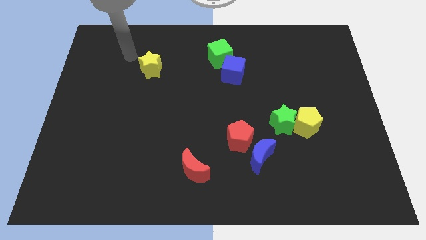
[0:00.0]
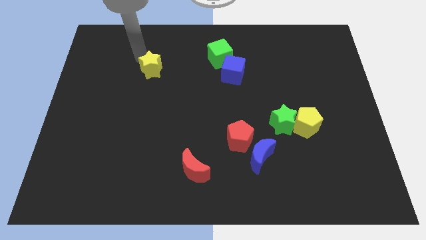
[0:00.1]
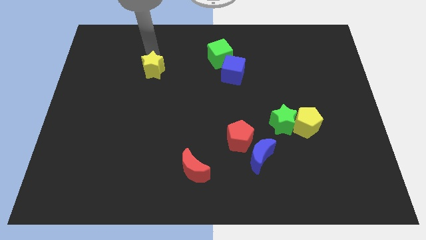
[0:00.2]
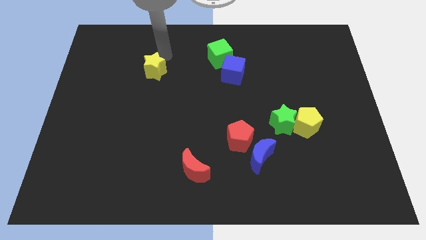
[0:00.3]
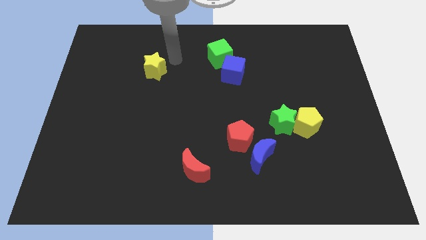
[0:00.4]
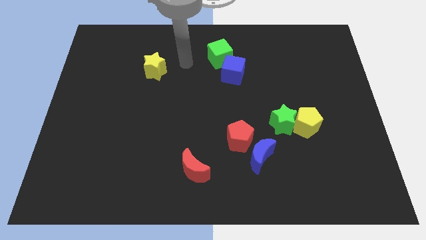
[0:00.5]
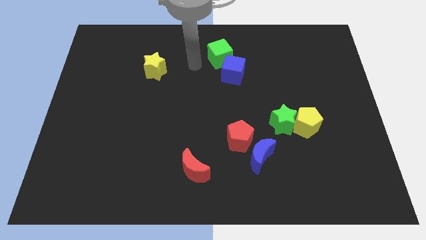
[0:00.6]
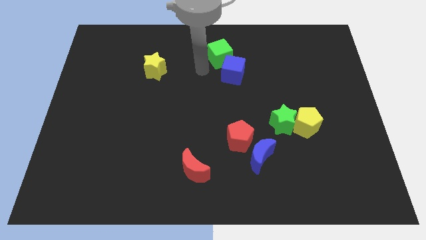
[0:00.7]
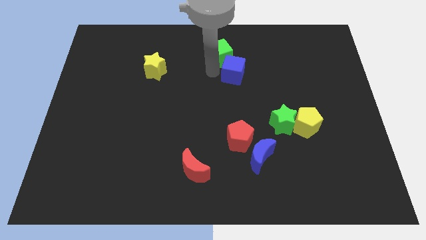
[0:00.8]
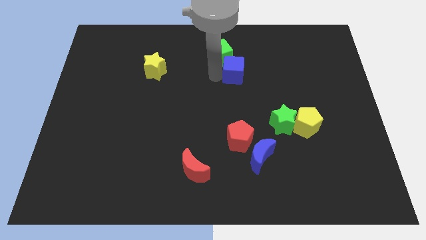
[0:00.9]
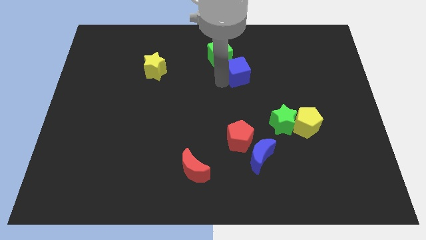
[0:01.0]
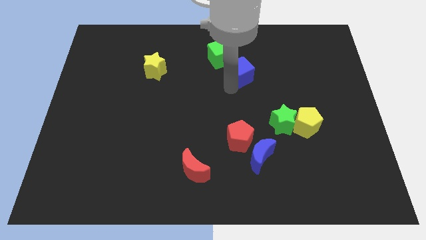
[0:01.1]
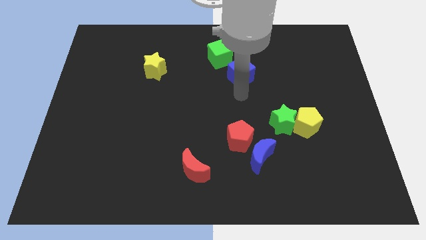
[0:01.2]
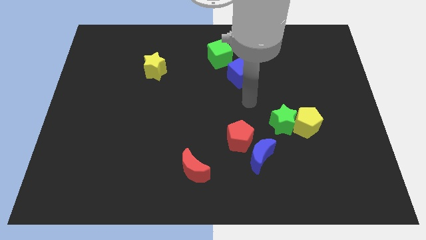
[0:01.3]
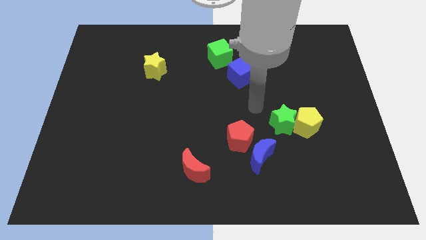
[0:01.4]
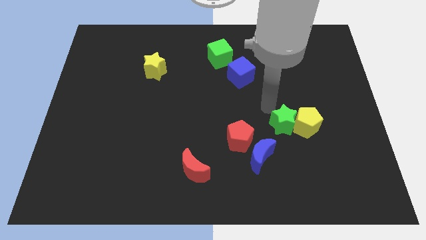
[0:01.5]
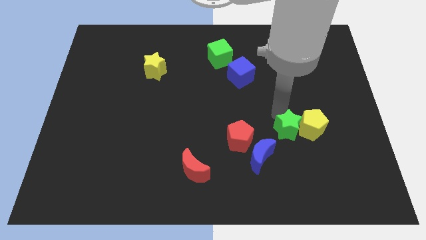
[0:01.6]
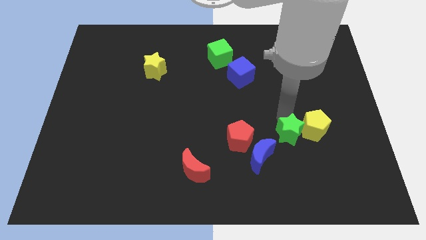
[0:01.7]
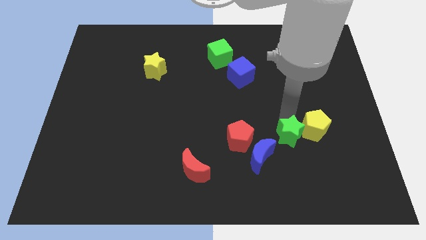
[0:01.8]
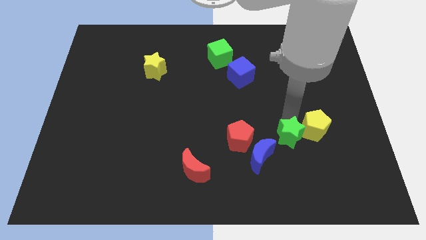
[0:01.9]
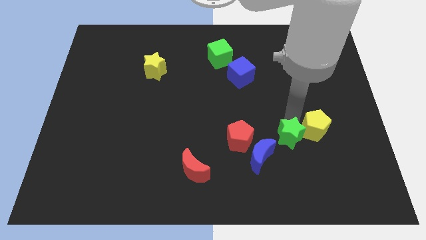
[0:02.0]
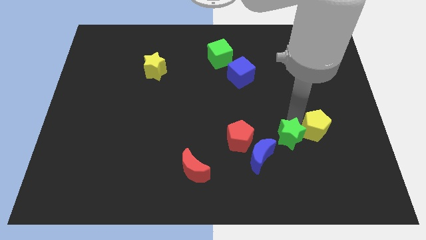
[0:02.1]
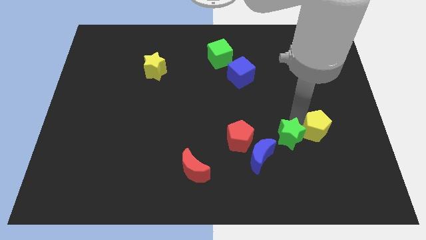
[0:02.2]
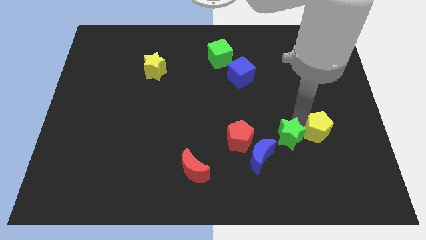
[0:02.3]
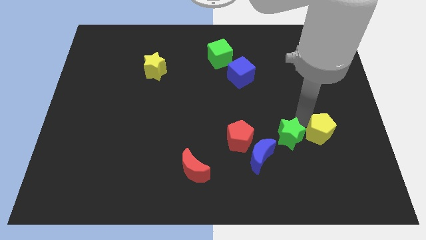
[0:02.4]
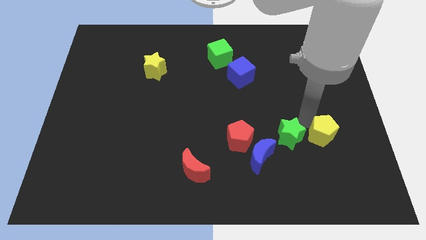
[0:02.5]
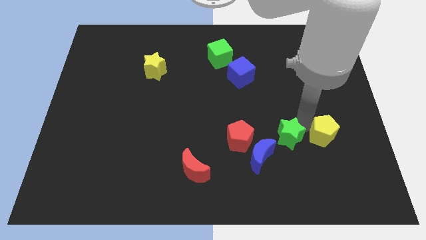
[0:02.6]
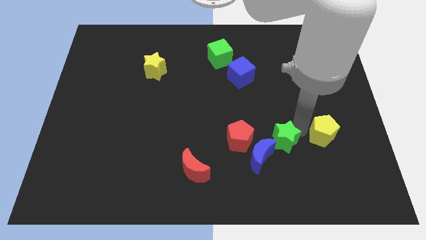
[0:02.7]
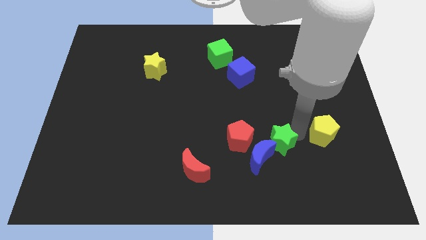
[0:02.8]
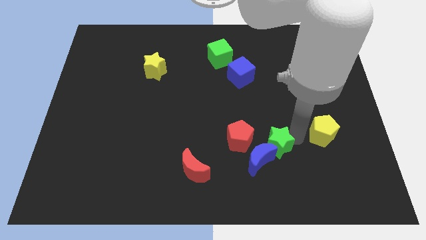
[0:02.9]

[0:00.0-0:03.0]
pull the yellow pentagon apart from the green star

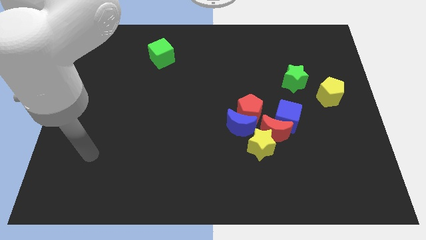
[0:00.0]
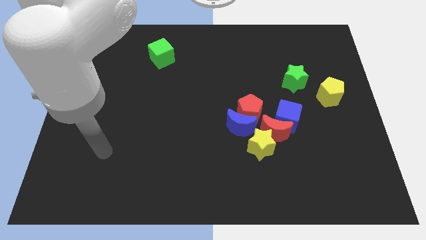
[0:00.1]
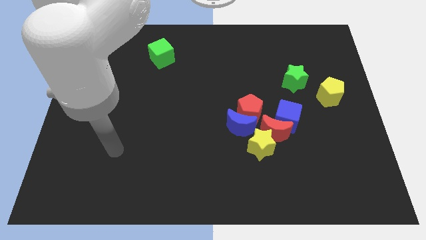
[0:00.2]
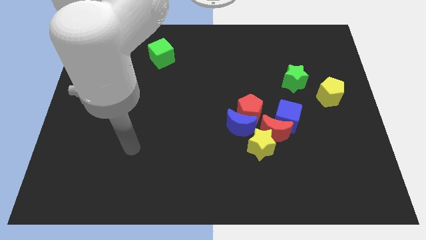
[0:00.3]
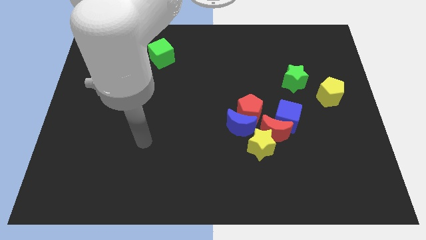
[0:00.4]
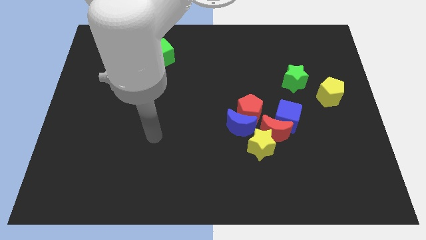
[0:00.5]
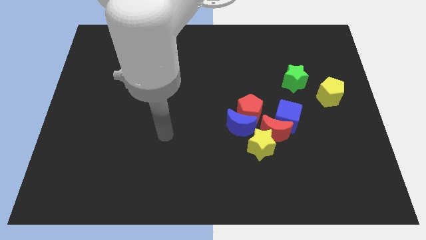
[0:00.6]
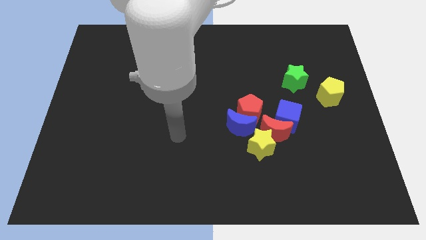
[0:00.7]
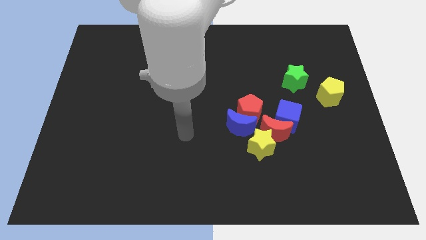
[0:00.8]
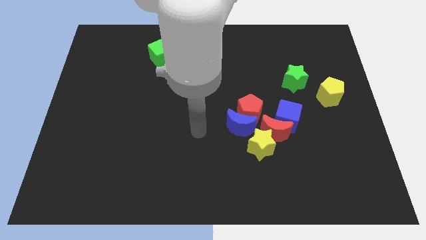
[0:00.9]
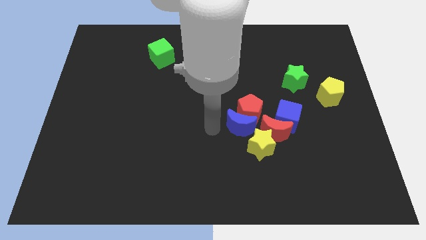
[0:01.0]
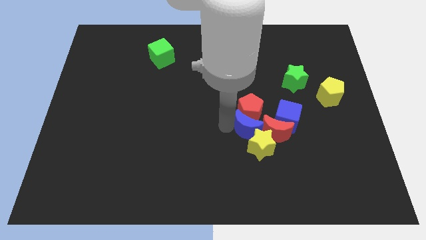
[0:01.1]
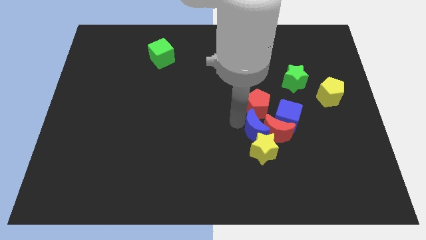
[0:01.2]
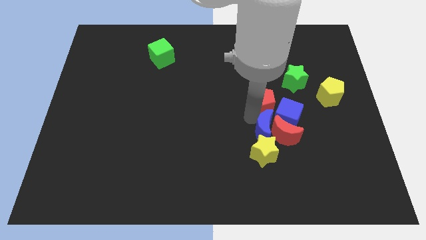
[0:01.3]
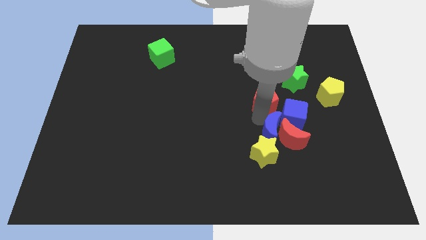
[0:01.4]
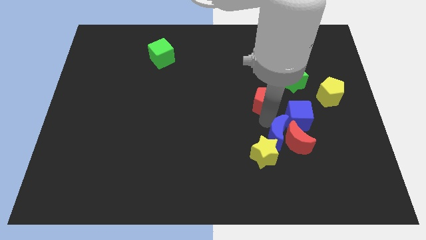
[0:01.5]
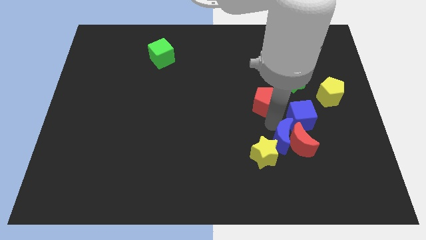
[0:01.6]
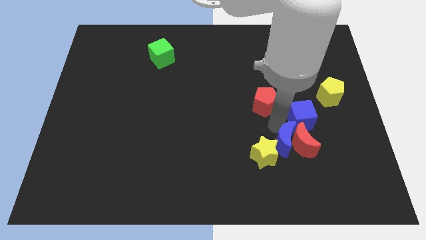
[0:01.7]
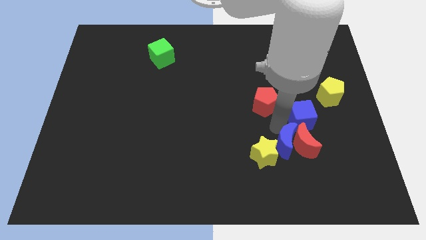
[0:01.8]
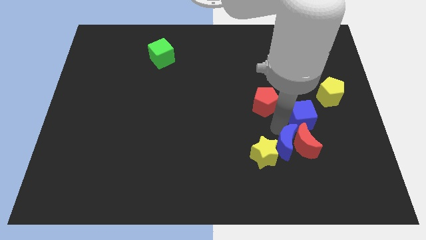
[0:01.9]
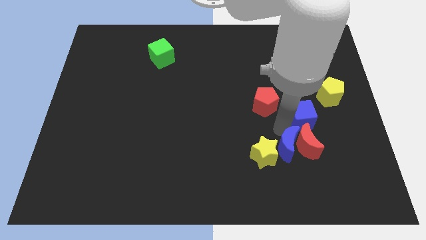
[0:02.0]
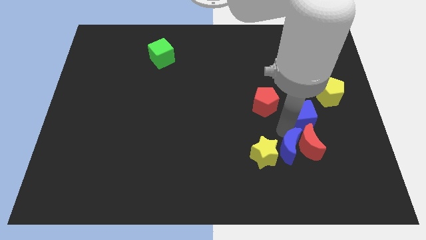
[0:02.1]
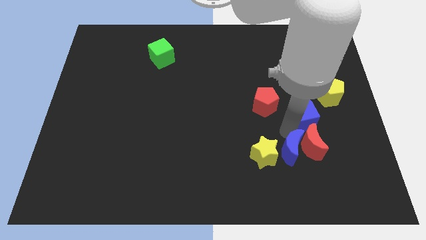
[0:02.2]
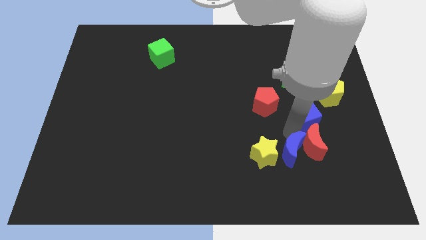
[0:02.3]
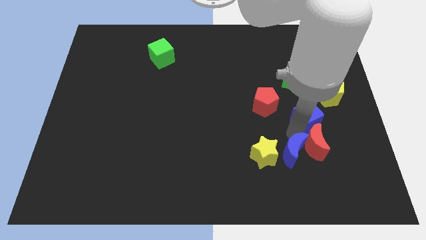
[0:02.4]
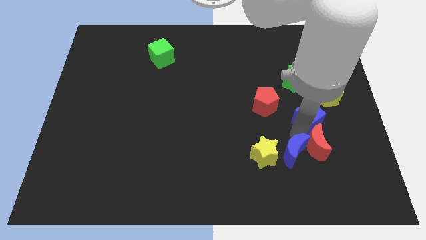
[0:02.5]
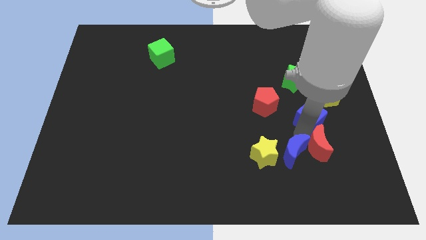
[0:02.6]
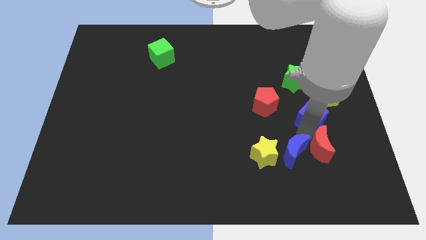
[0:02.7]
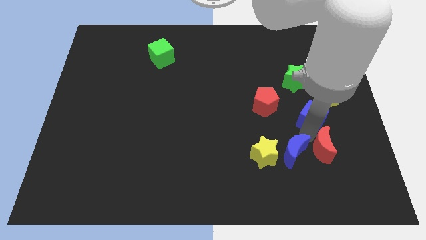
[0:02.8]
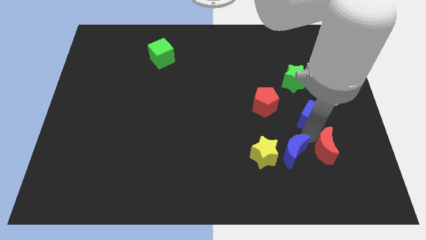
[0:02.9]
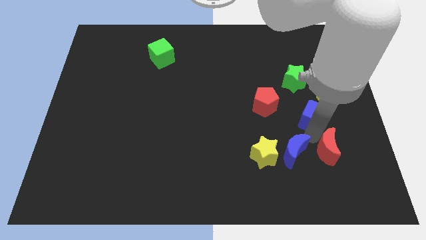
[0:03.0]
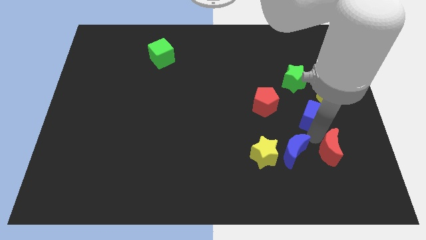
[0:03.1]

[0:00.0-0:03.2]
separate the red moon from the group

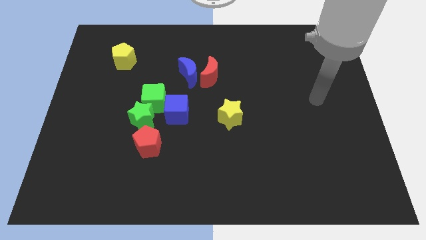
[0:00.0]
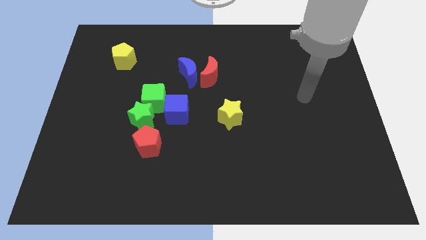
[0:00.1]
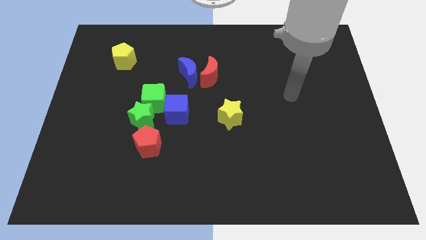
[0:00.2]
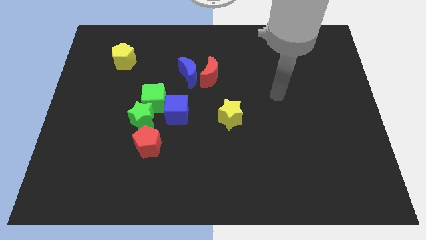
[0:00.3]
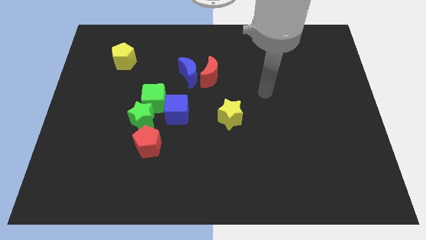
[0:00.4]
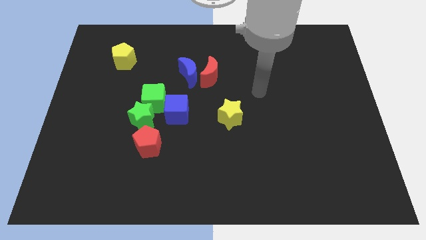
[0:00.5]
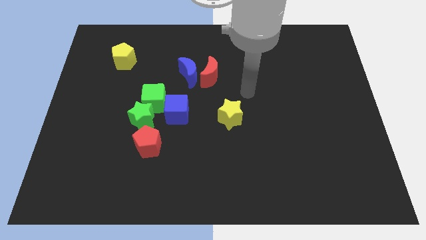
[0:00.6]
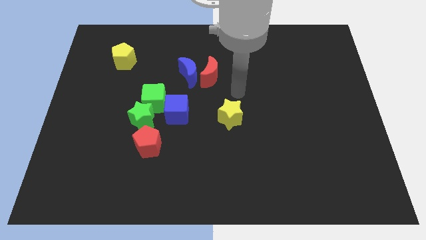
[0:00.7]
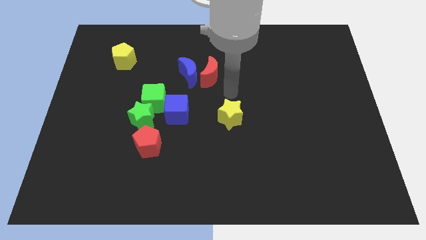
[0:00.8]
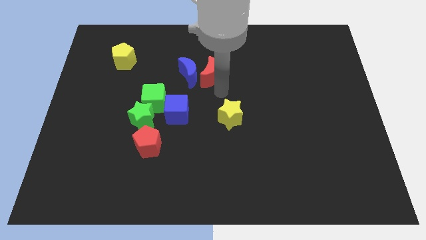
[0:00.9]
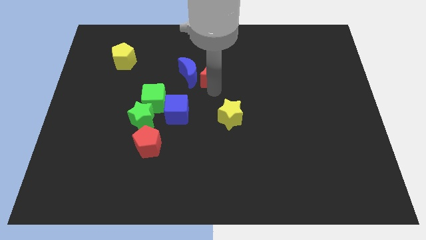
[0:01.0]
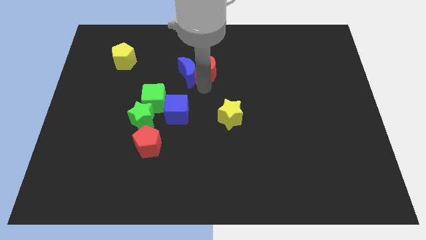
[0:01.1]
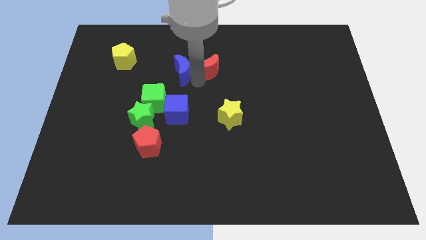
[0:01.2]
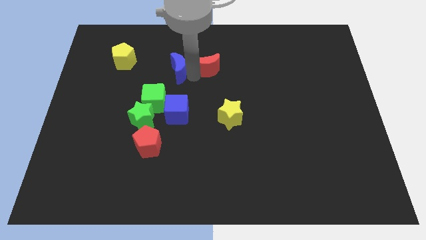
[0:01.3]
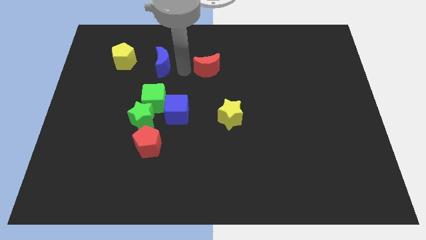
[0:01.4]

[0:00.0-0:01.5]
pull the red moon apart from the blue moon

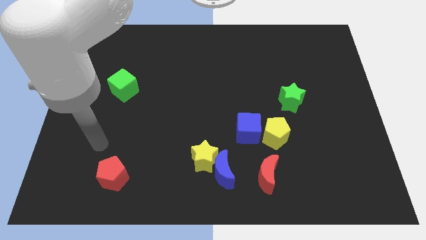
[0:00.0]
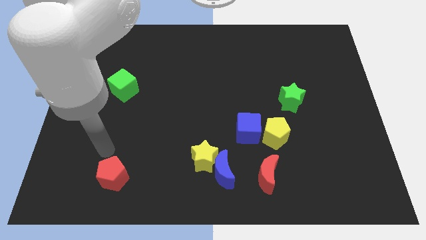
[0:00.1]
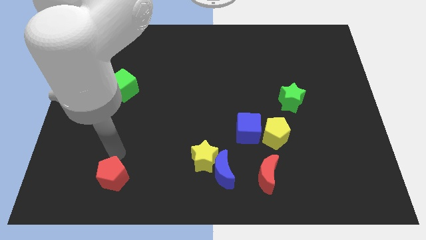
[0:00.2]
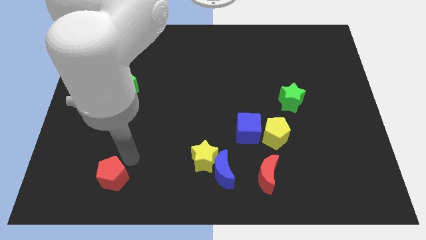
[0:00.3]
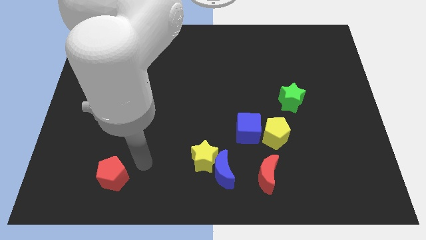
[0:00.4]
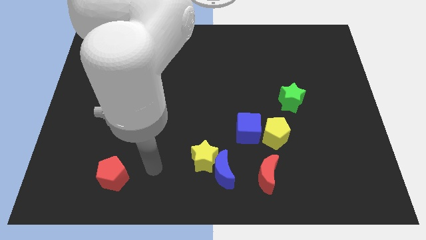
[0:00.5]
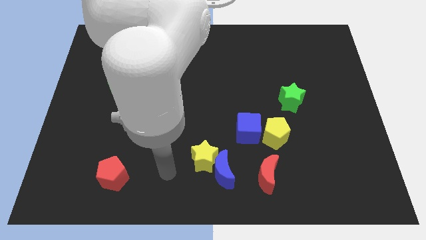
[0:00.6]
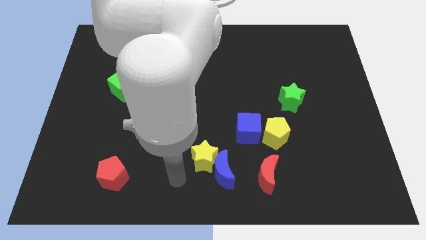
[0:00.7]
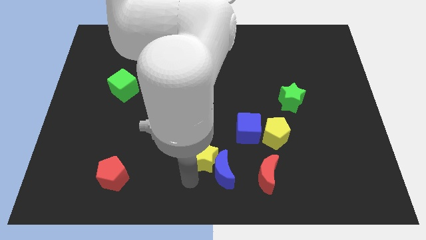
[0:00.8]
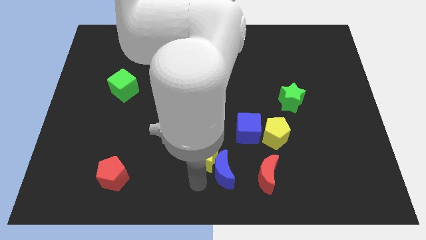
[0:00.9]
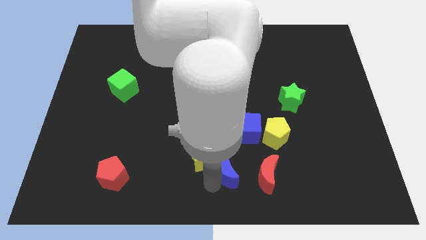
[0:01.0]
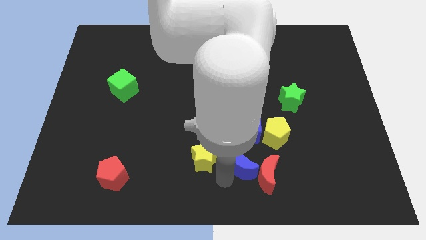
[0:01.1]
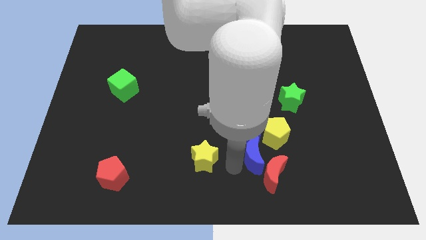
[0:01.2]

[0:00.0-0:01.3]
pull the yellow star apart from the blue moon

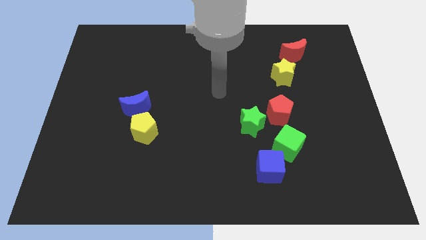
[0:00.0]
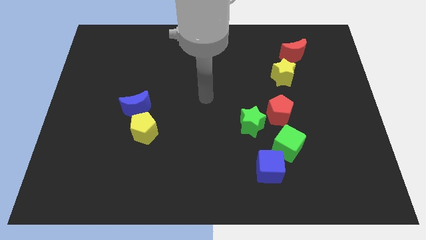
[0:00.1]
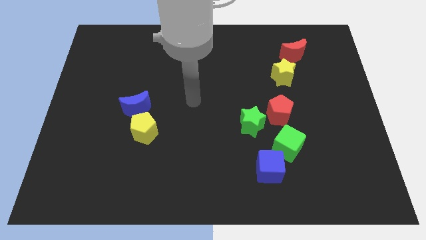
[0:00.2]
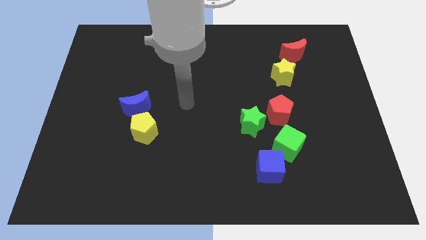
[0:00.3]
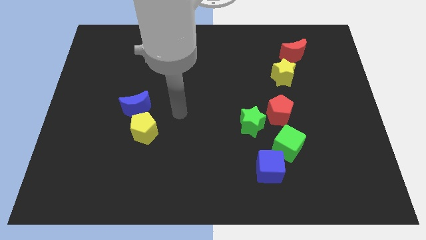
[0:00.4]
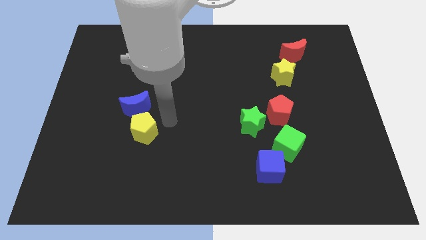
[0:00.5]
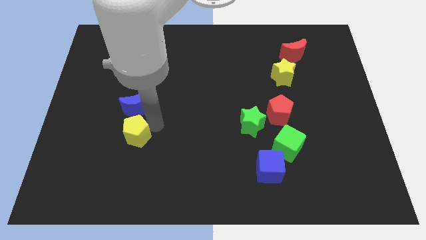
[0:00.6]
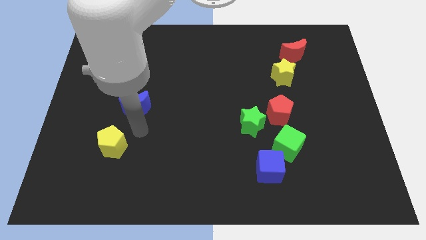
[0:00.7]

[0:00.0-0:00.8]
move the blue moon away from the yellow pentagon
